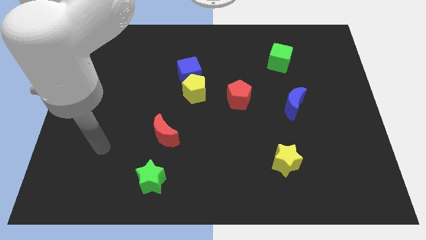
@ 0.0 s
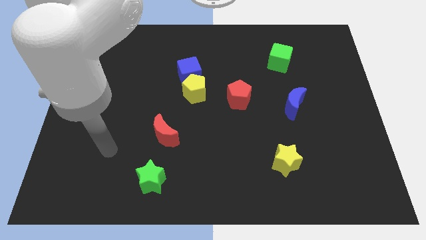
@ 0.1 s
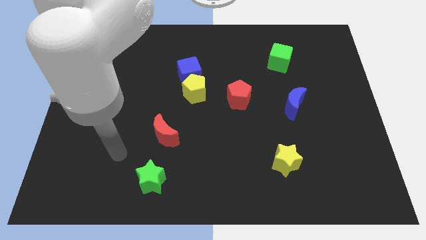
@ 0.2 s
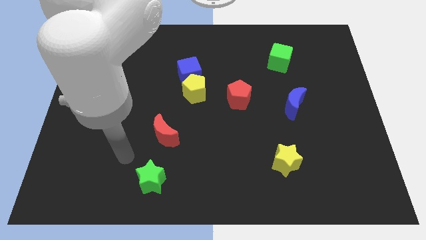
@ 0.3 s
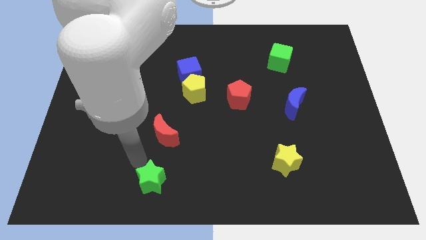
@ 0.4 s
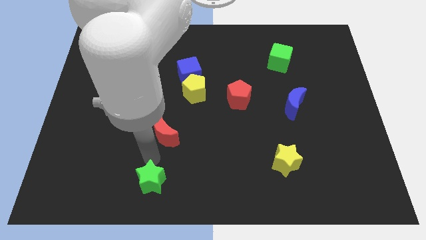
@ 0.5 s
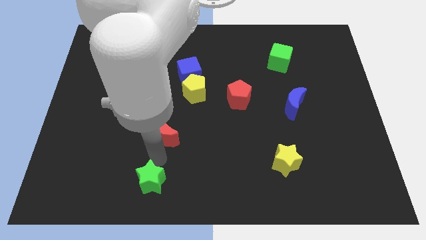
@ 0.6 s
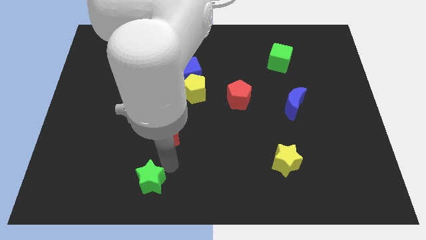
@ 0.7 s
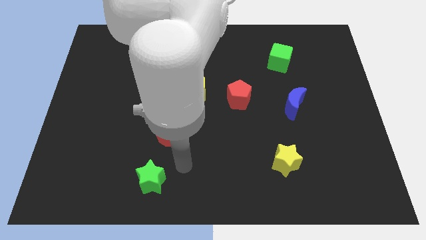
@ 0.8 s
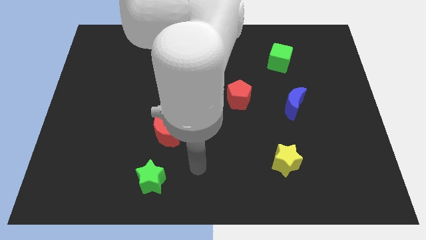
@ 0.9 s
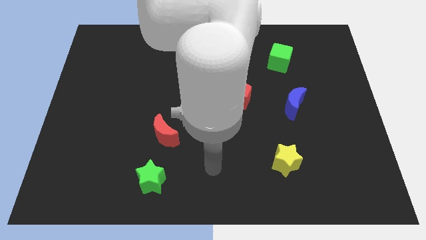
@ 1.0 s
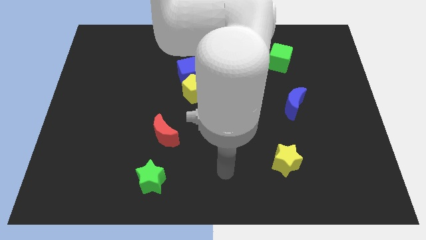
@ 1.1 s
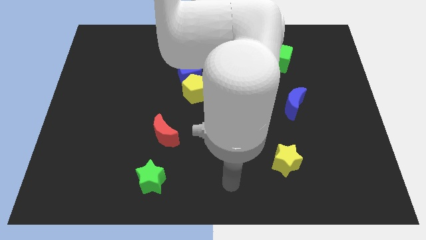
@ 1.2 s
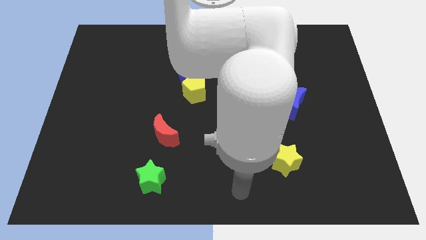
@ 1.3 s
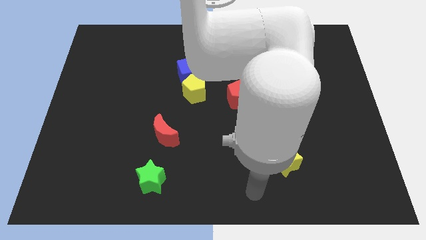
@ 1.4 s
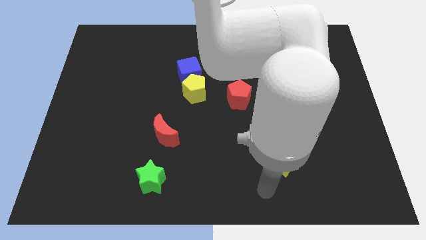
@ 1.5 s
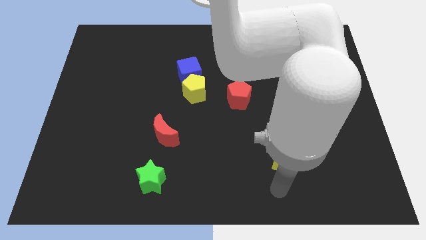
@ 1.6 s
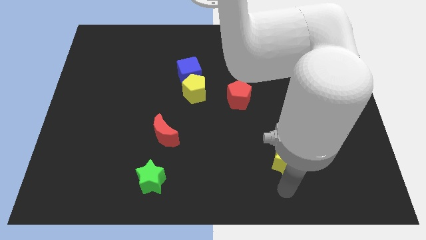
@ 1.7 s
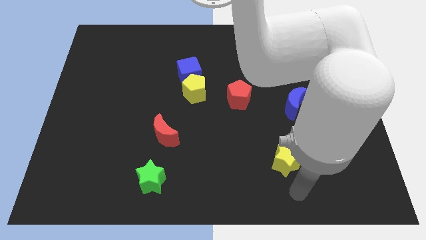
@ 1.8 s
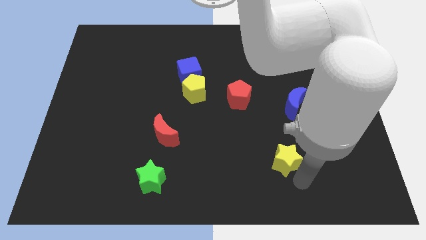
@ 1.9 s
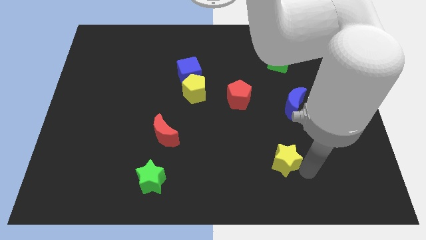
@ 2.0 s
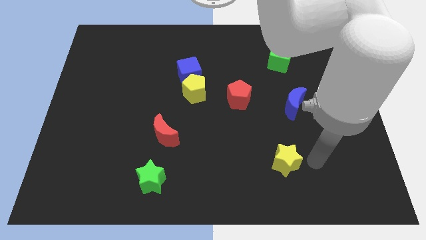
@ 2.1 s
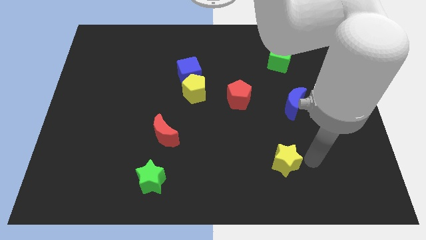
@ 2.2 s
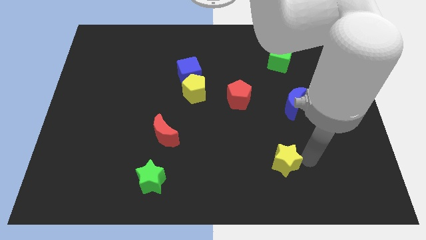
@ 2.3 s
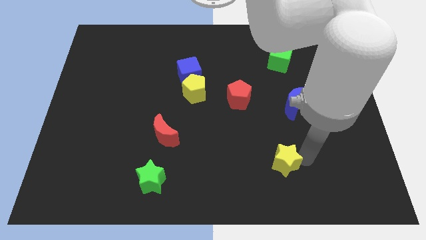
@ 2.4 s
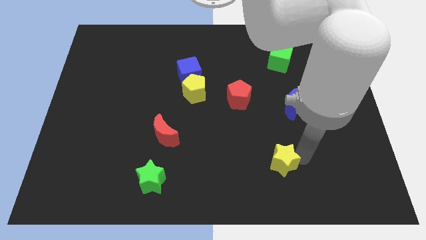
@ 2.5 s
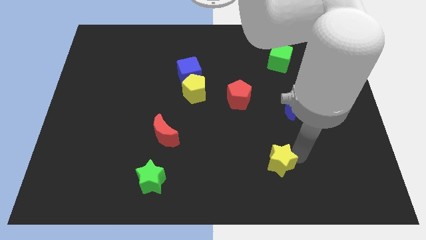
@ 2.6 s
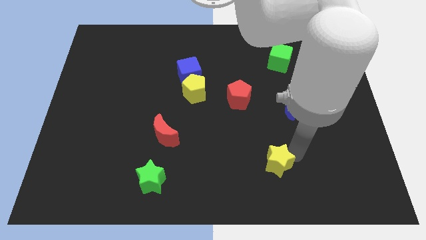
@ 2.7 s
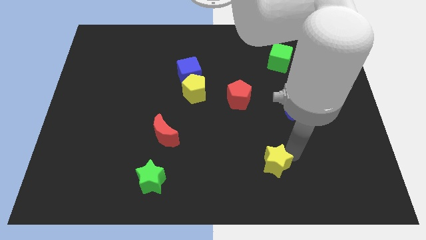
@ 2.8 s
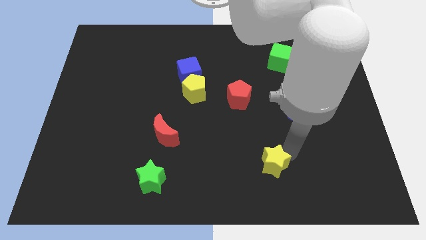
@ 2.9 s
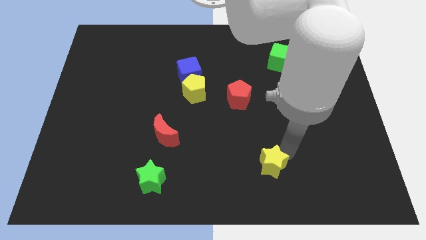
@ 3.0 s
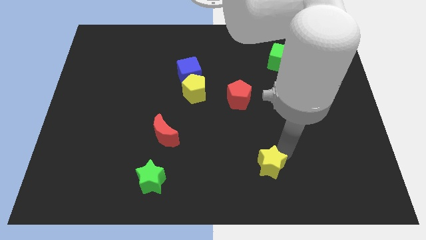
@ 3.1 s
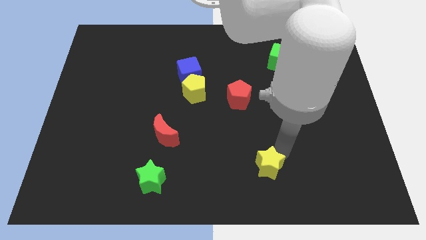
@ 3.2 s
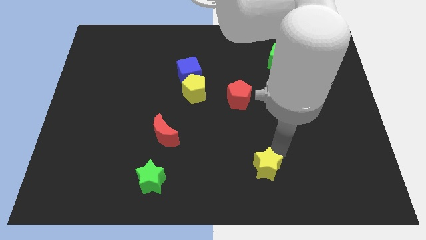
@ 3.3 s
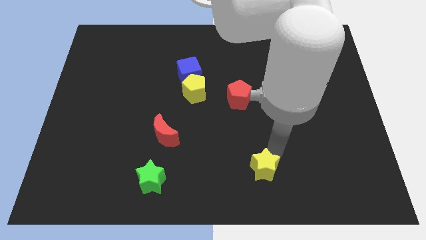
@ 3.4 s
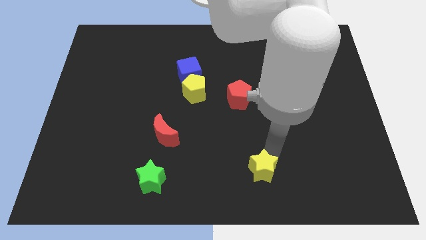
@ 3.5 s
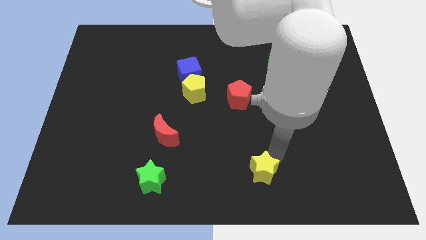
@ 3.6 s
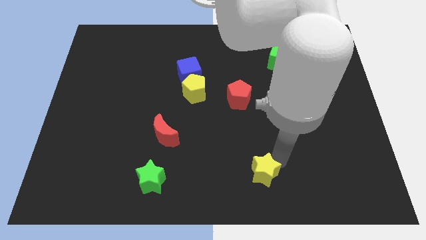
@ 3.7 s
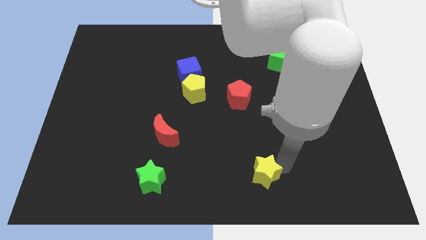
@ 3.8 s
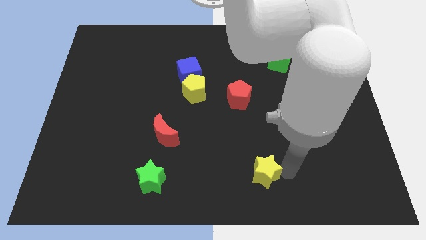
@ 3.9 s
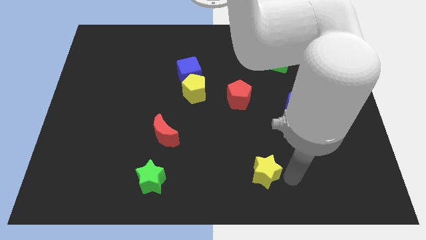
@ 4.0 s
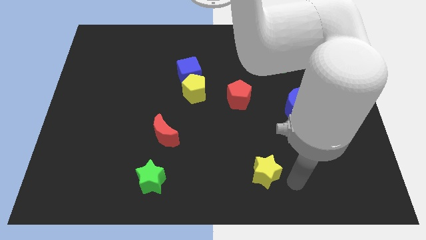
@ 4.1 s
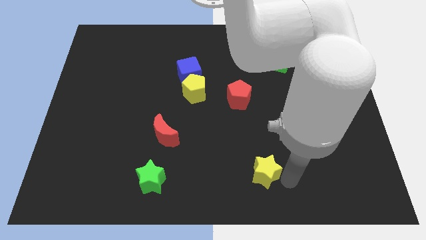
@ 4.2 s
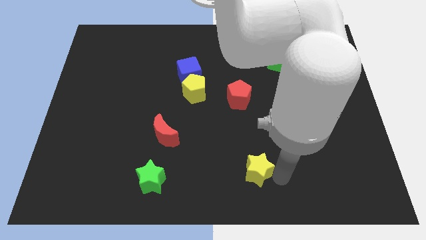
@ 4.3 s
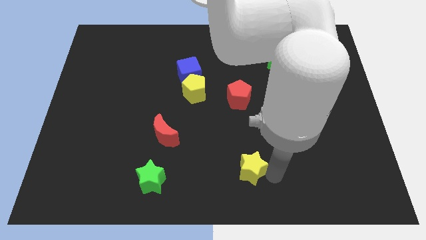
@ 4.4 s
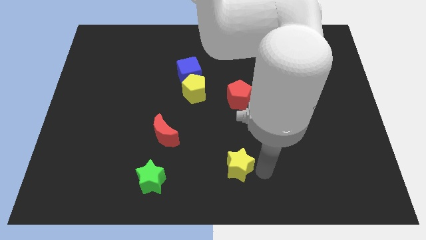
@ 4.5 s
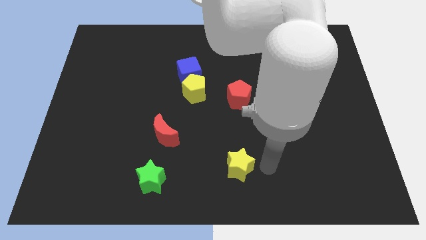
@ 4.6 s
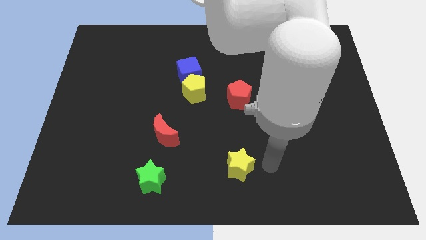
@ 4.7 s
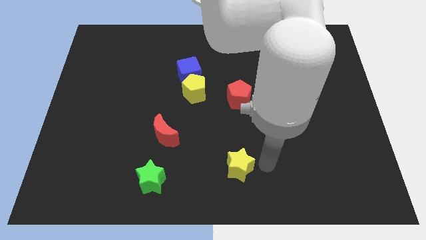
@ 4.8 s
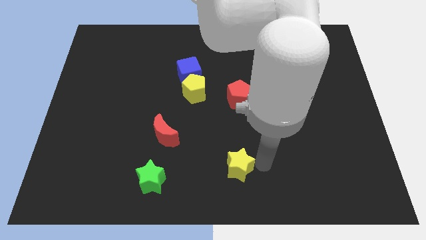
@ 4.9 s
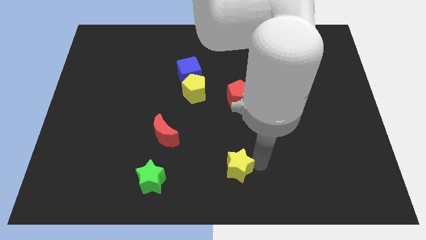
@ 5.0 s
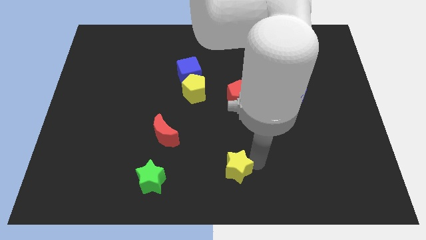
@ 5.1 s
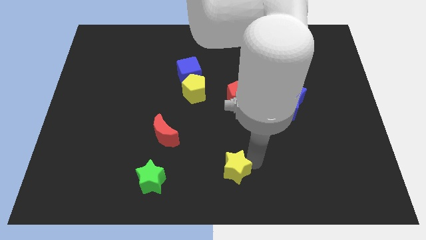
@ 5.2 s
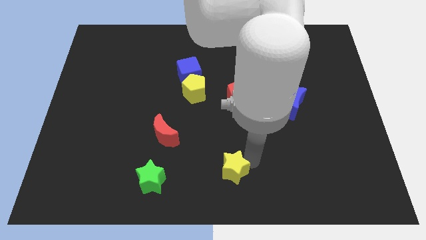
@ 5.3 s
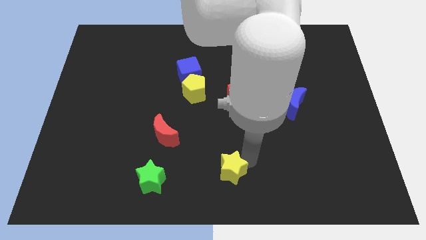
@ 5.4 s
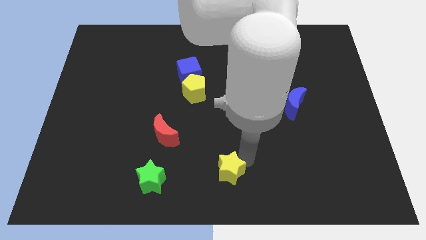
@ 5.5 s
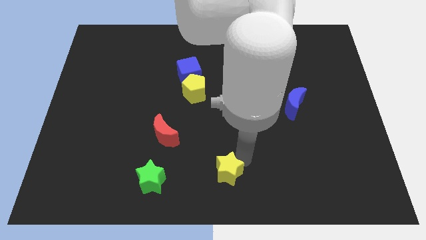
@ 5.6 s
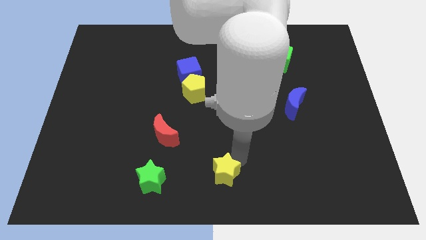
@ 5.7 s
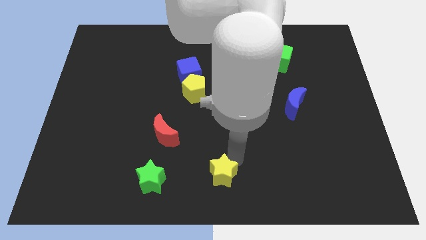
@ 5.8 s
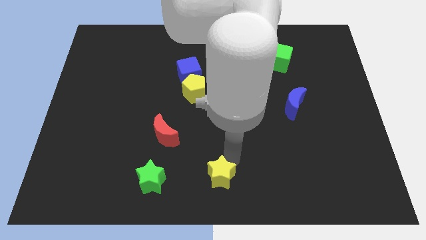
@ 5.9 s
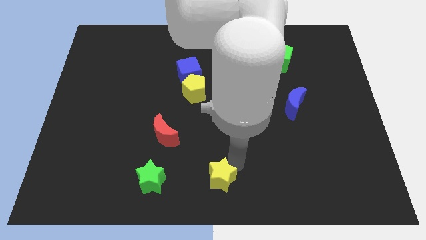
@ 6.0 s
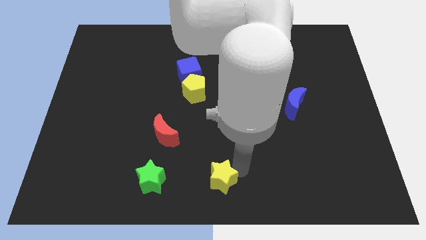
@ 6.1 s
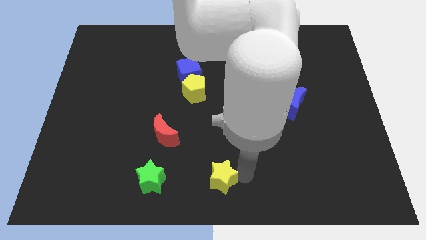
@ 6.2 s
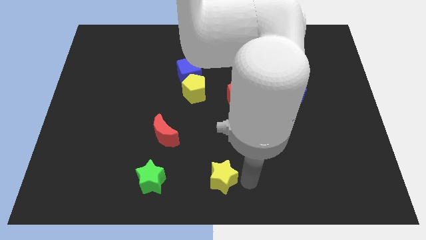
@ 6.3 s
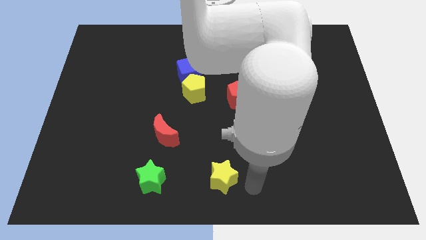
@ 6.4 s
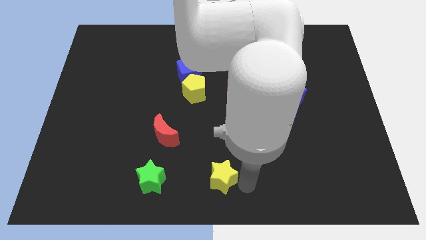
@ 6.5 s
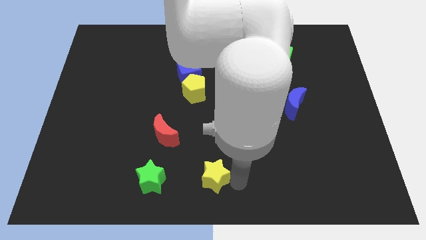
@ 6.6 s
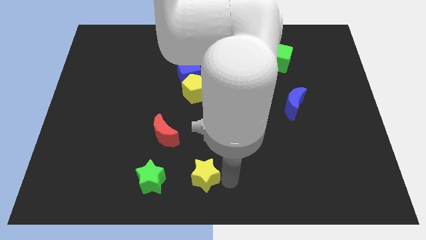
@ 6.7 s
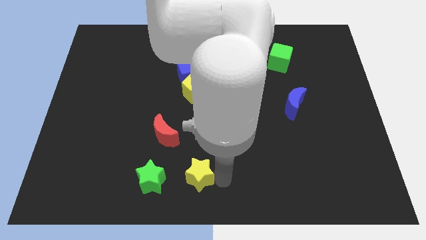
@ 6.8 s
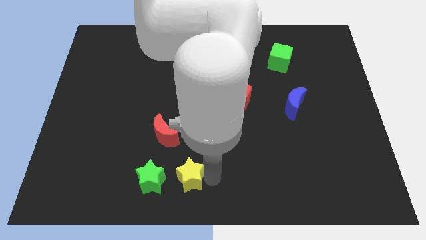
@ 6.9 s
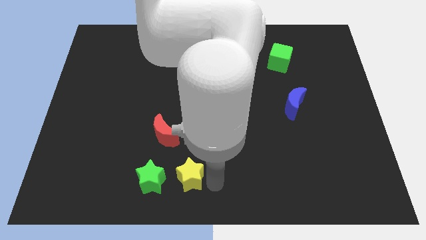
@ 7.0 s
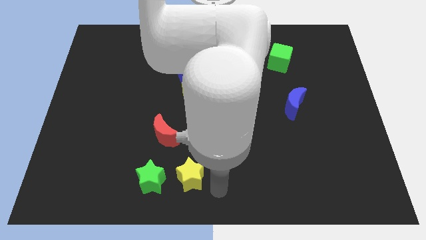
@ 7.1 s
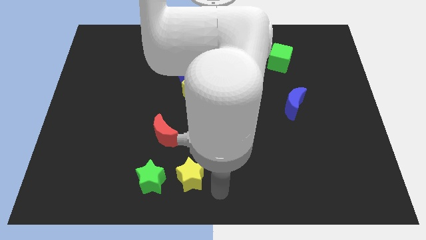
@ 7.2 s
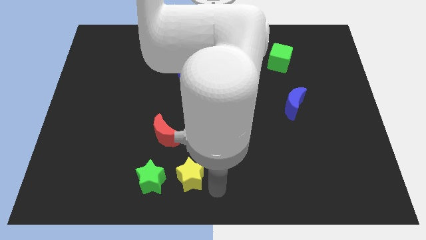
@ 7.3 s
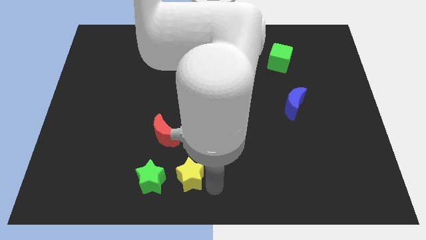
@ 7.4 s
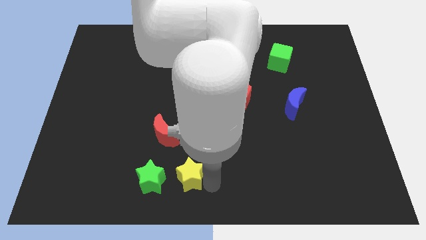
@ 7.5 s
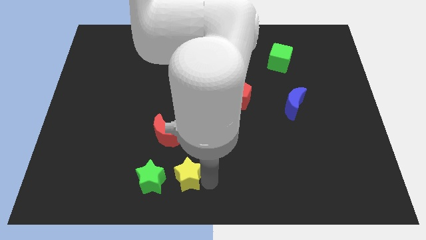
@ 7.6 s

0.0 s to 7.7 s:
slide the yellow star to the left

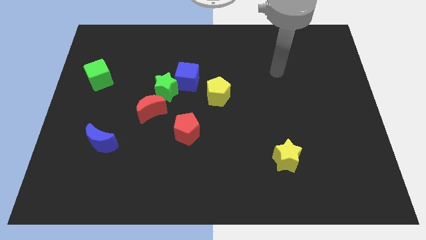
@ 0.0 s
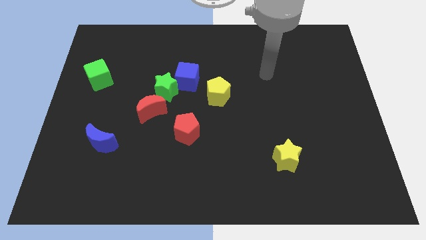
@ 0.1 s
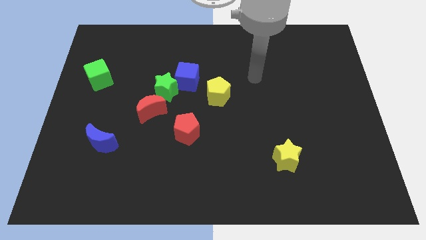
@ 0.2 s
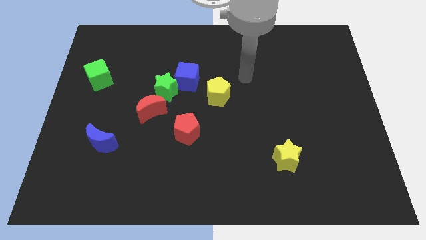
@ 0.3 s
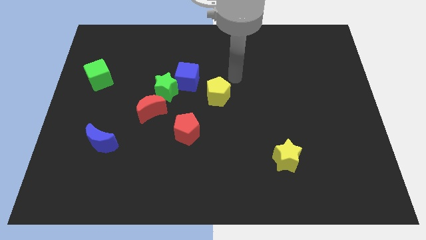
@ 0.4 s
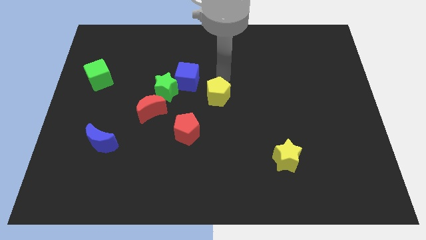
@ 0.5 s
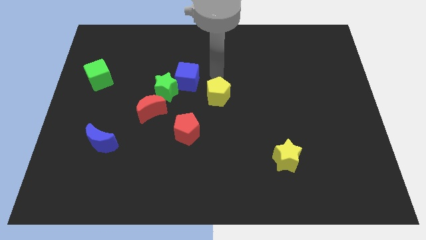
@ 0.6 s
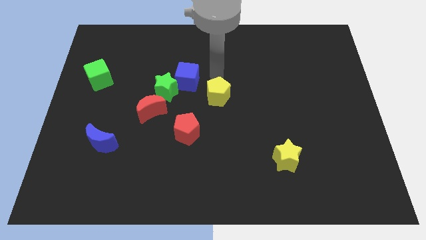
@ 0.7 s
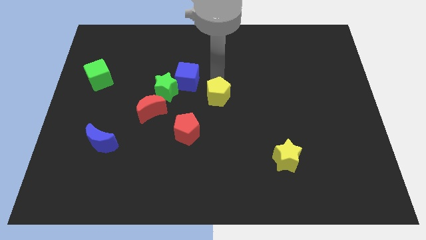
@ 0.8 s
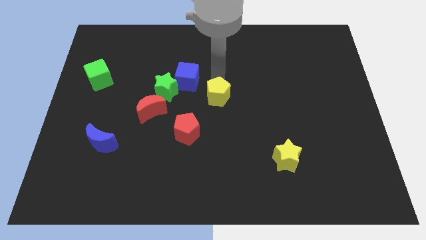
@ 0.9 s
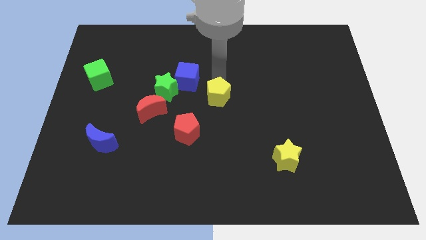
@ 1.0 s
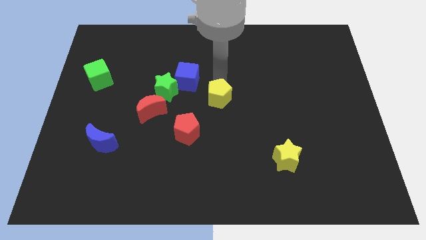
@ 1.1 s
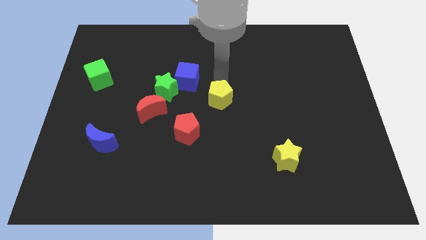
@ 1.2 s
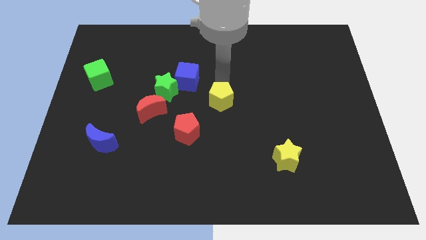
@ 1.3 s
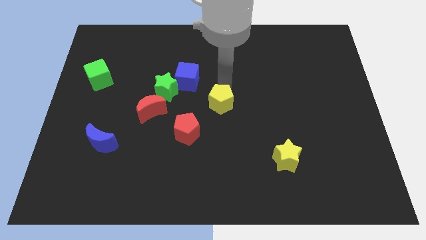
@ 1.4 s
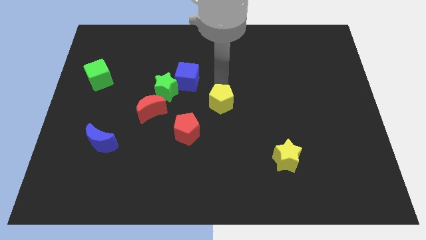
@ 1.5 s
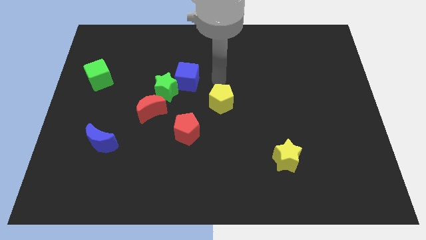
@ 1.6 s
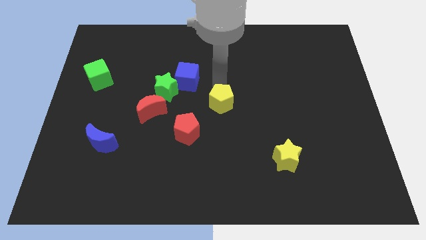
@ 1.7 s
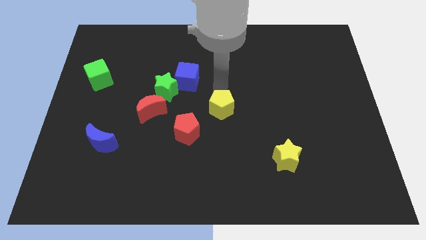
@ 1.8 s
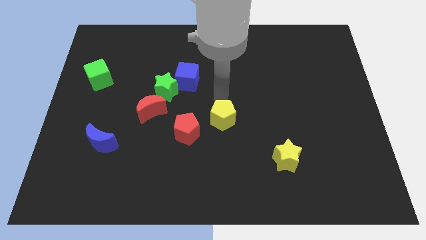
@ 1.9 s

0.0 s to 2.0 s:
move the yellow pentagon a bit down
